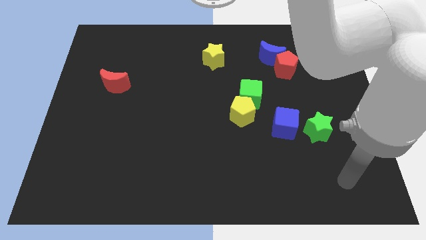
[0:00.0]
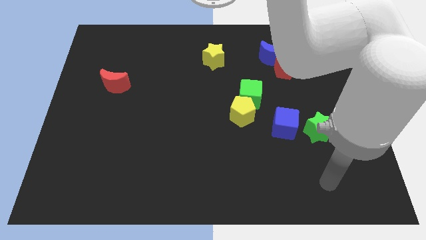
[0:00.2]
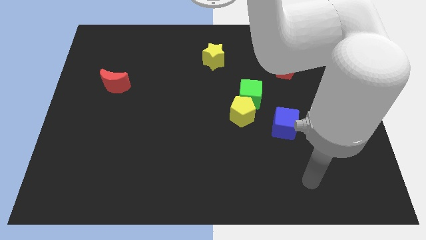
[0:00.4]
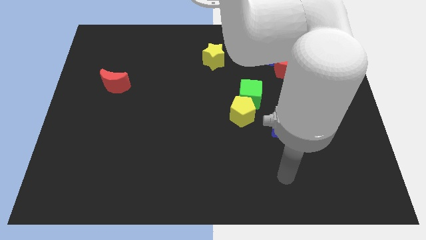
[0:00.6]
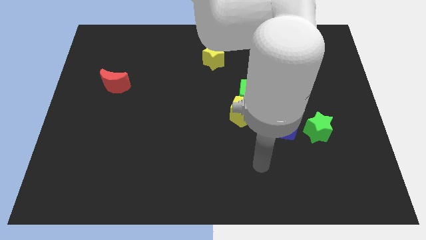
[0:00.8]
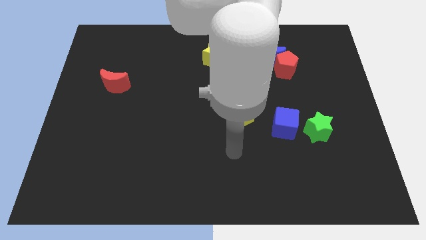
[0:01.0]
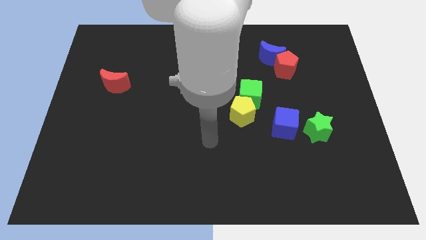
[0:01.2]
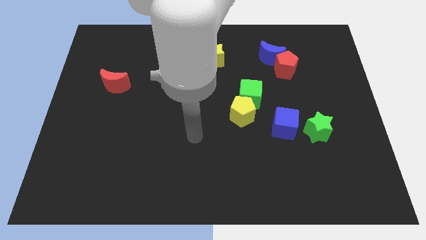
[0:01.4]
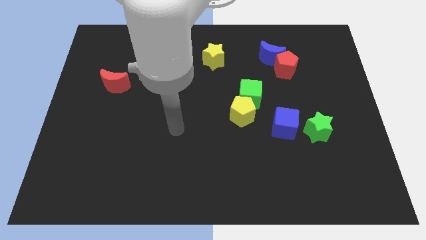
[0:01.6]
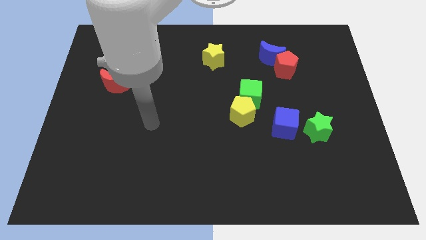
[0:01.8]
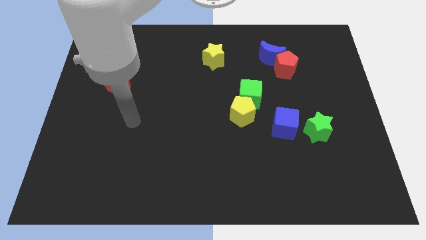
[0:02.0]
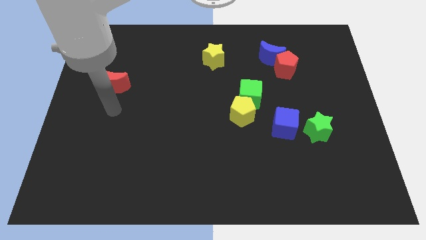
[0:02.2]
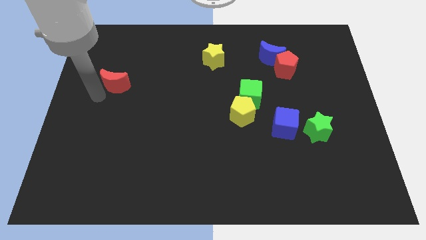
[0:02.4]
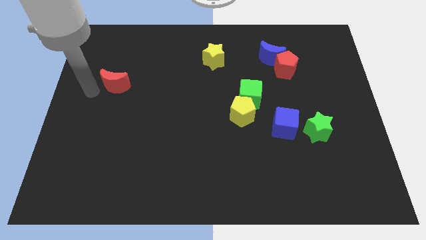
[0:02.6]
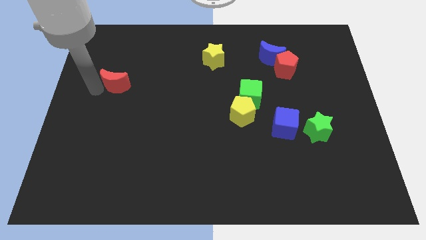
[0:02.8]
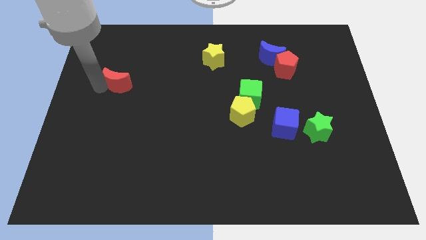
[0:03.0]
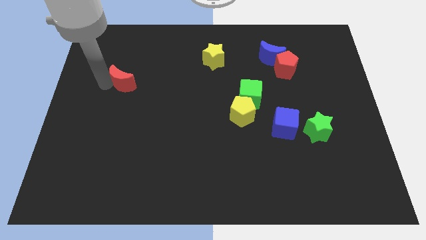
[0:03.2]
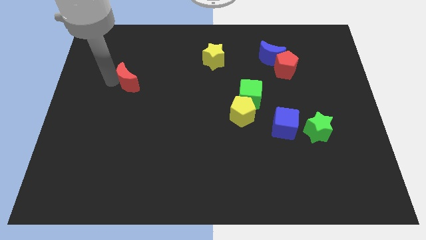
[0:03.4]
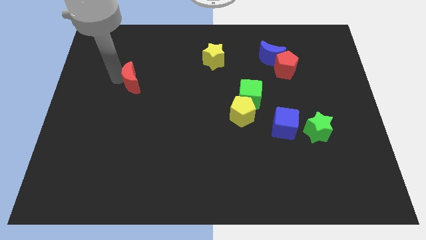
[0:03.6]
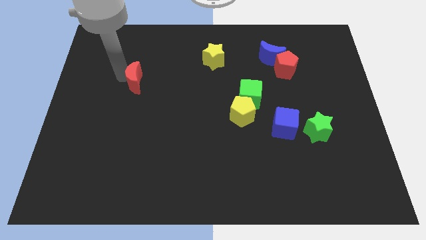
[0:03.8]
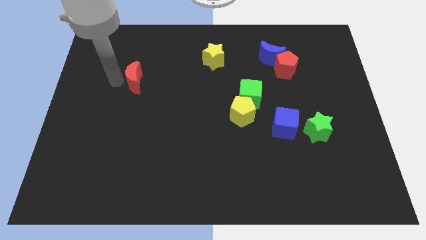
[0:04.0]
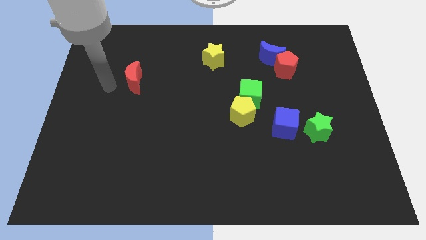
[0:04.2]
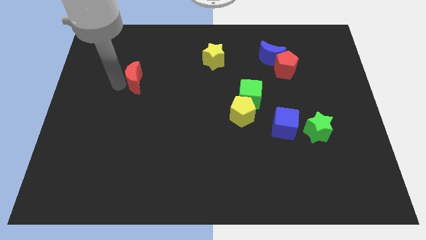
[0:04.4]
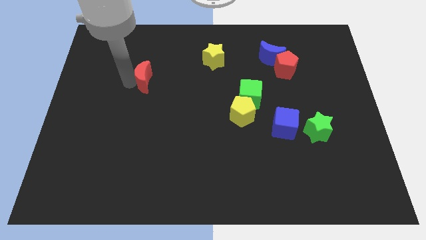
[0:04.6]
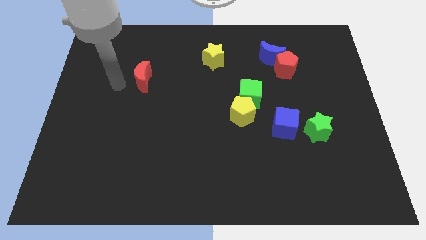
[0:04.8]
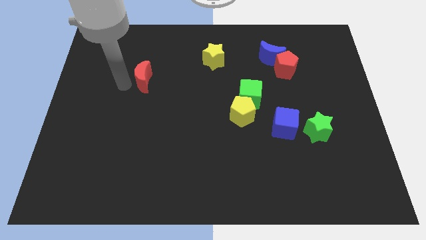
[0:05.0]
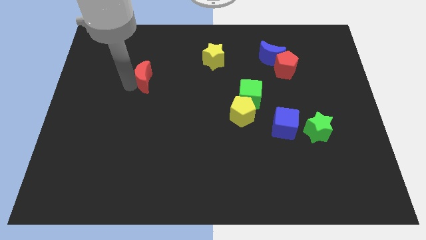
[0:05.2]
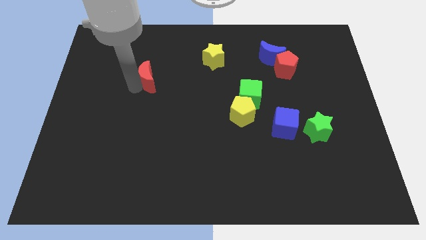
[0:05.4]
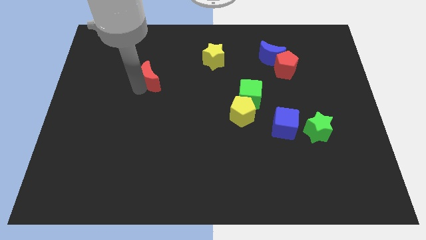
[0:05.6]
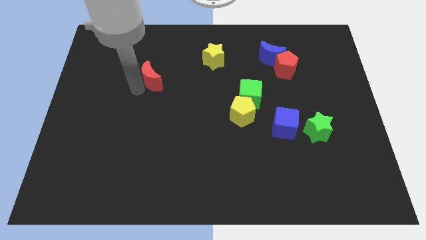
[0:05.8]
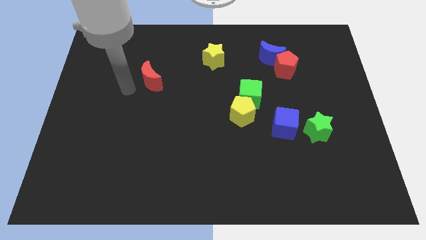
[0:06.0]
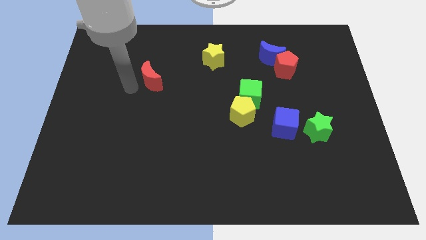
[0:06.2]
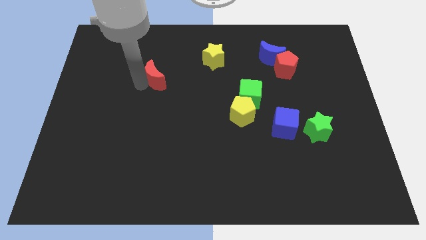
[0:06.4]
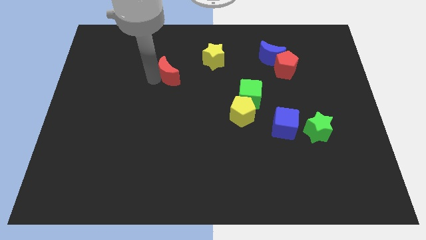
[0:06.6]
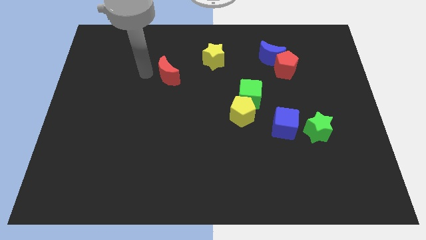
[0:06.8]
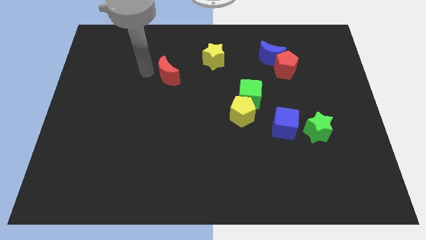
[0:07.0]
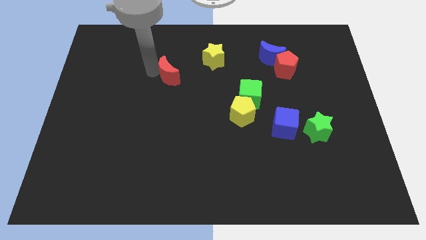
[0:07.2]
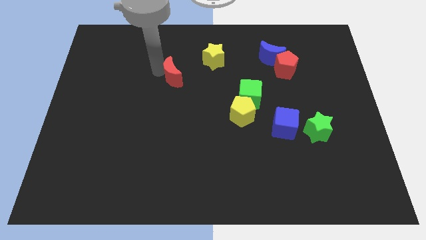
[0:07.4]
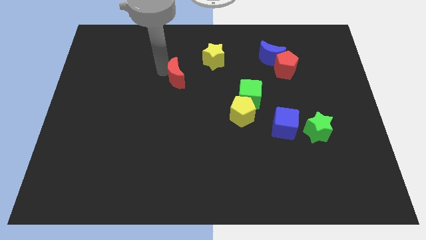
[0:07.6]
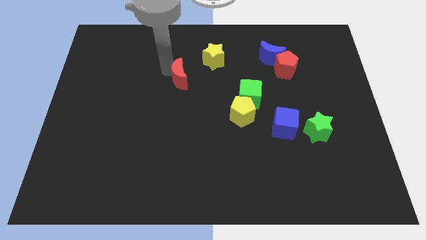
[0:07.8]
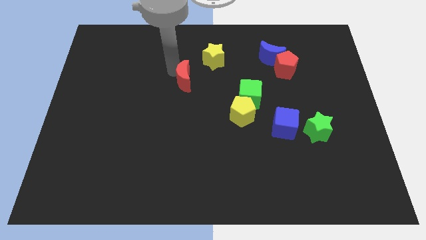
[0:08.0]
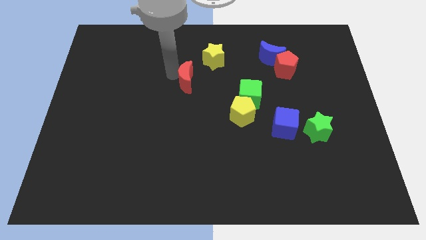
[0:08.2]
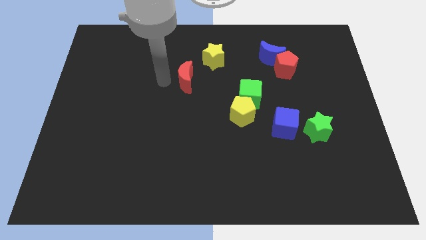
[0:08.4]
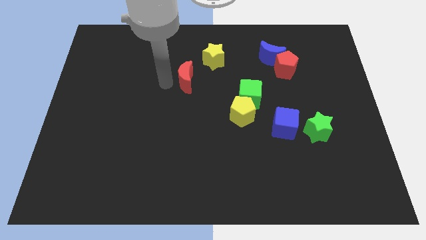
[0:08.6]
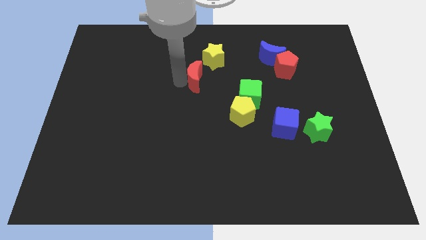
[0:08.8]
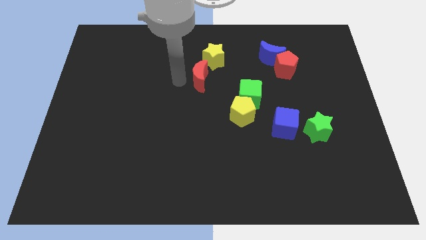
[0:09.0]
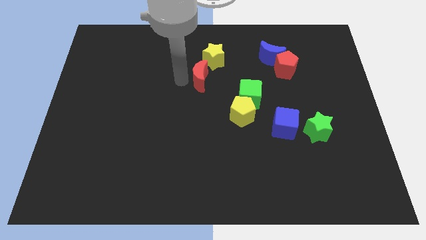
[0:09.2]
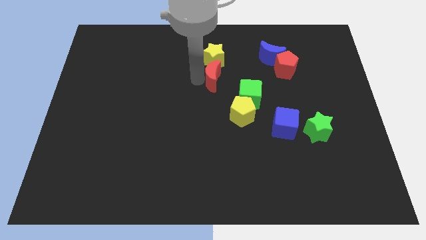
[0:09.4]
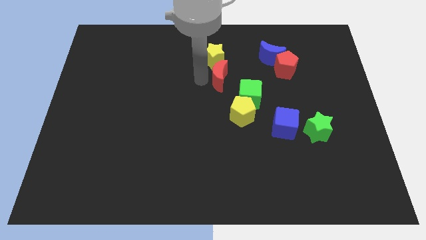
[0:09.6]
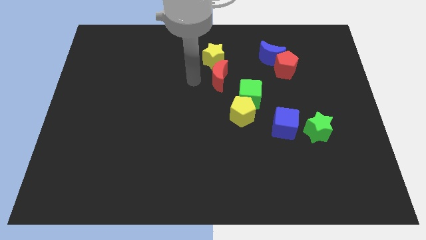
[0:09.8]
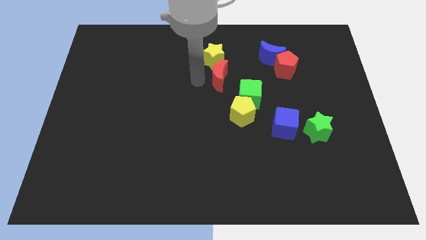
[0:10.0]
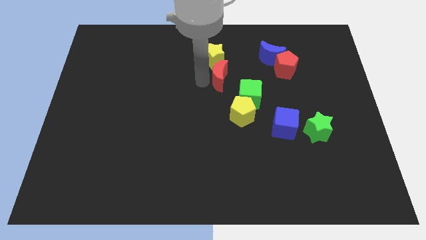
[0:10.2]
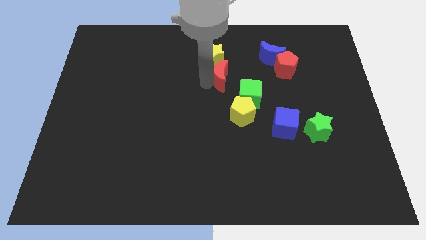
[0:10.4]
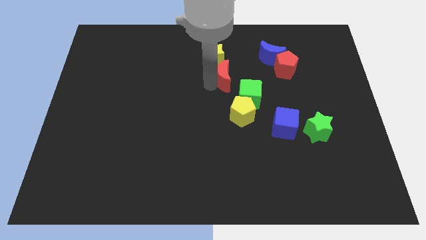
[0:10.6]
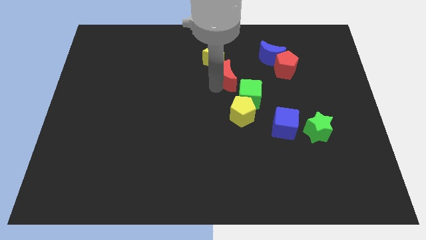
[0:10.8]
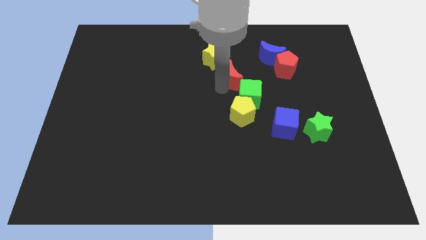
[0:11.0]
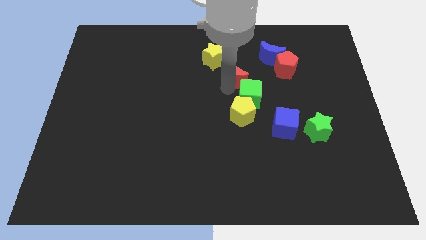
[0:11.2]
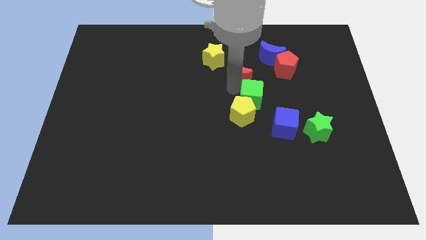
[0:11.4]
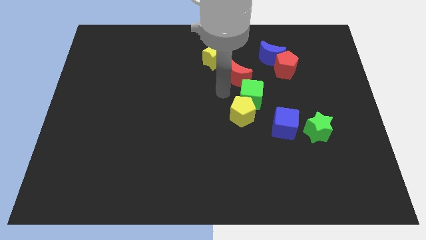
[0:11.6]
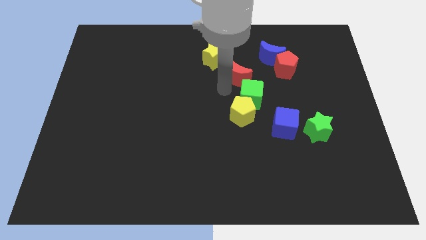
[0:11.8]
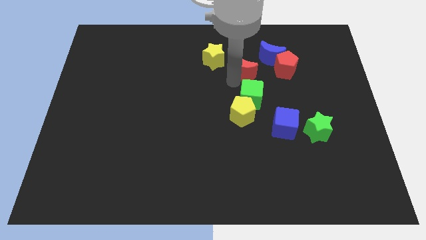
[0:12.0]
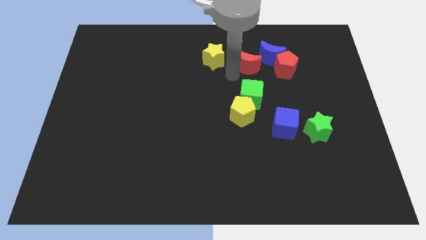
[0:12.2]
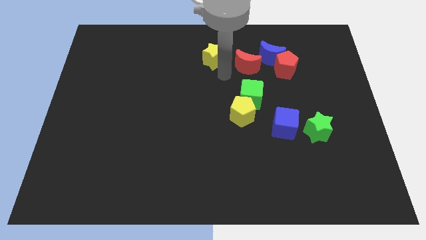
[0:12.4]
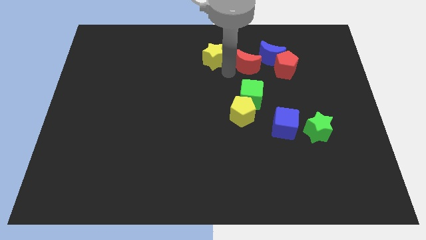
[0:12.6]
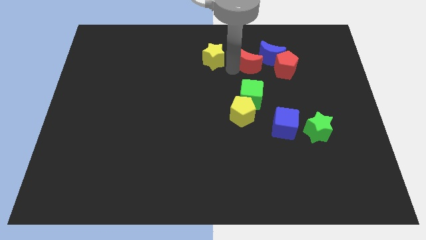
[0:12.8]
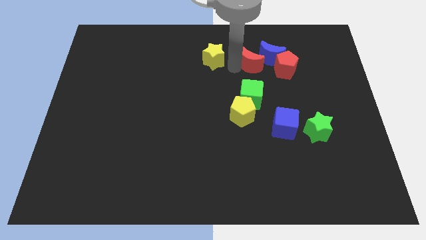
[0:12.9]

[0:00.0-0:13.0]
push the red moon towards the blue moon
